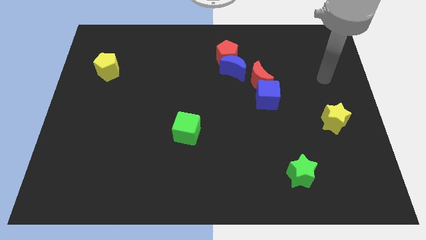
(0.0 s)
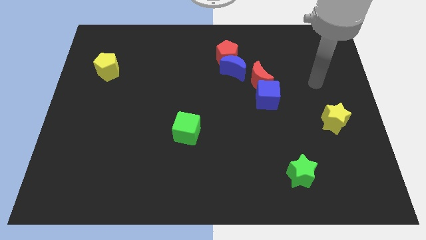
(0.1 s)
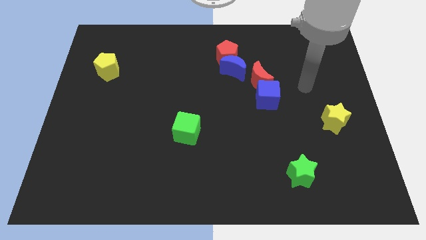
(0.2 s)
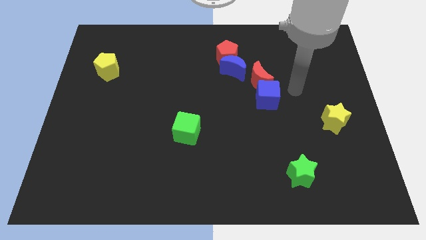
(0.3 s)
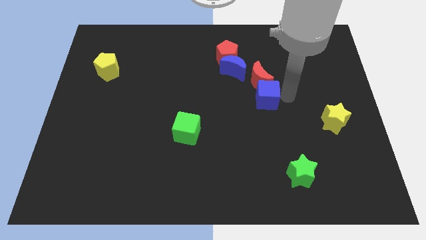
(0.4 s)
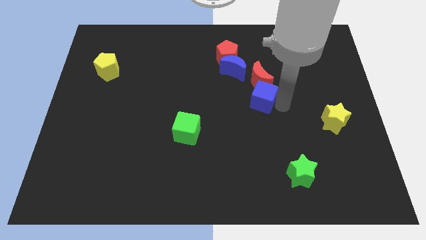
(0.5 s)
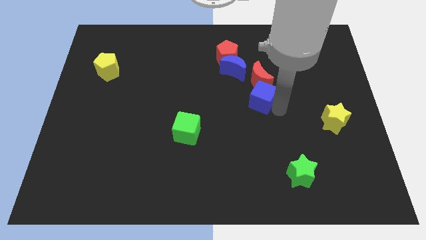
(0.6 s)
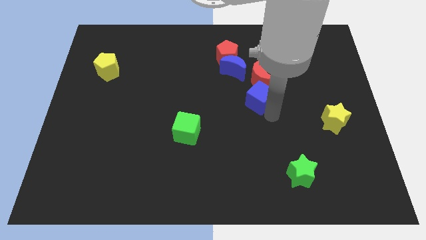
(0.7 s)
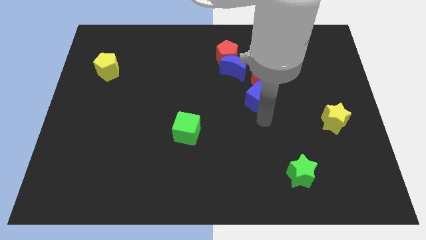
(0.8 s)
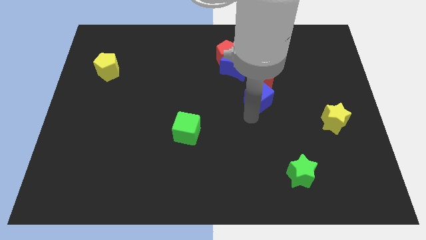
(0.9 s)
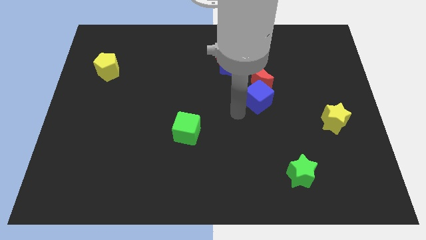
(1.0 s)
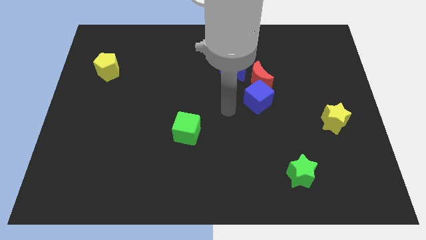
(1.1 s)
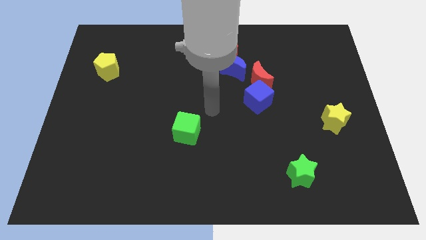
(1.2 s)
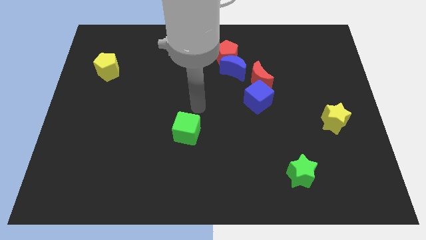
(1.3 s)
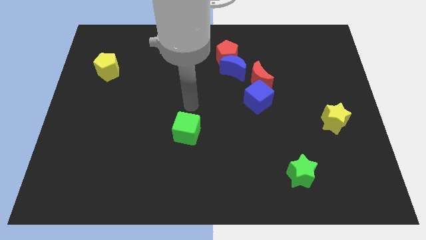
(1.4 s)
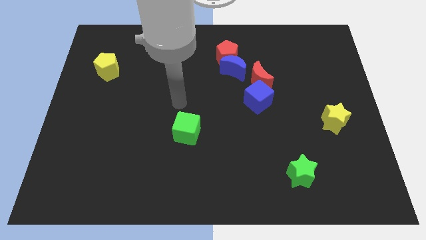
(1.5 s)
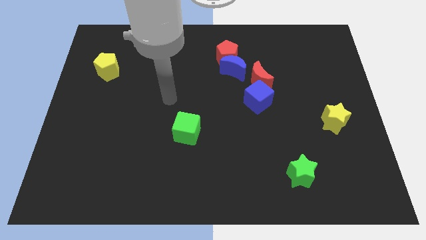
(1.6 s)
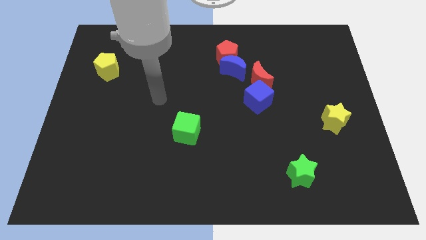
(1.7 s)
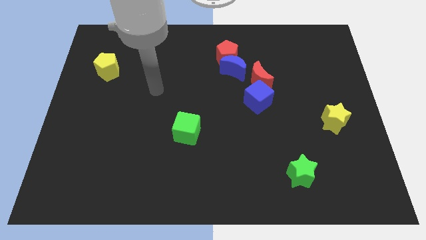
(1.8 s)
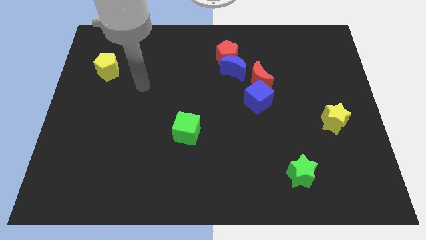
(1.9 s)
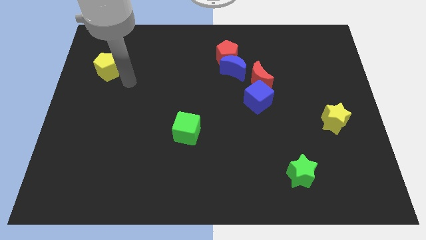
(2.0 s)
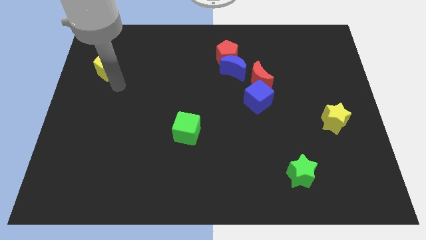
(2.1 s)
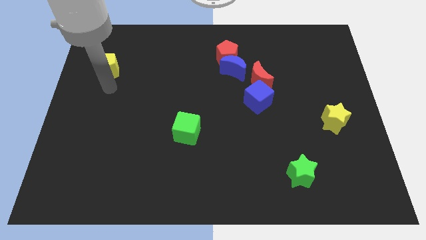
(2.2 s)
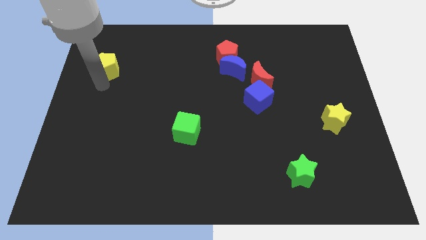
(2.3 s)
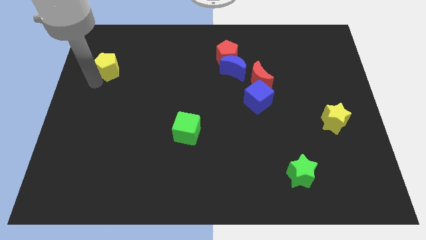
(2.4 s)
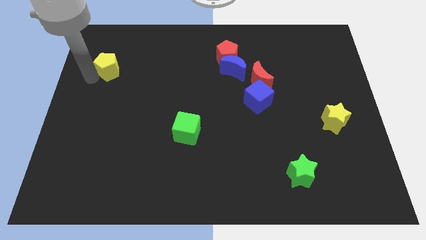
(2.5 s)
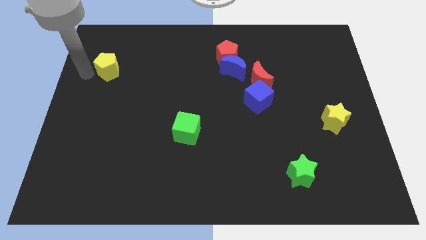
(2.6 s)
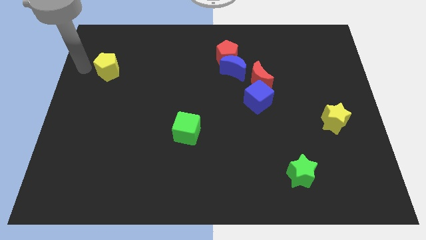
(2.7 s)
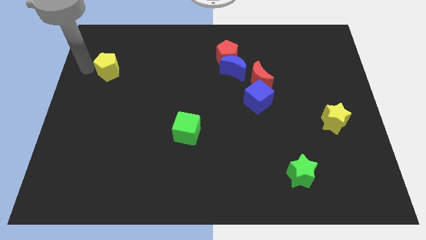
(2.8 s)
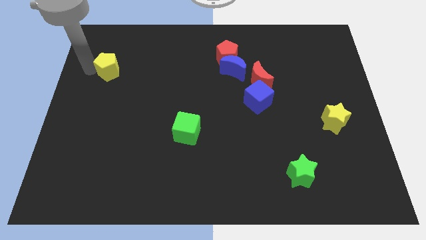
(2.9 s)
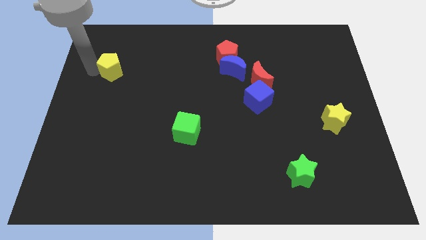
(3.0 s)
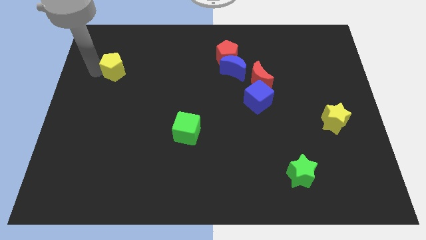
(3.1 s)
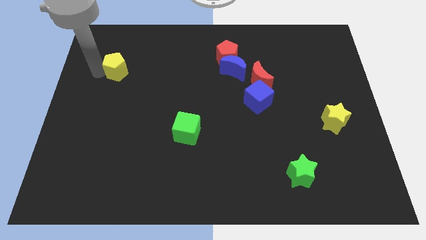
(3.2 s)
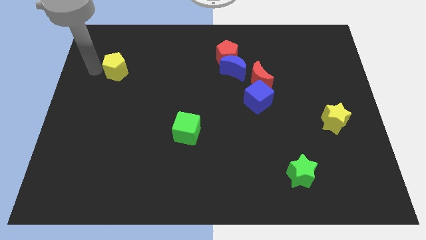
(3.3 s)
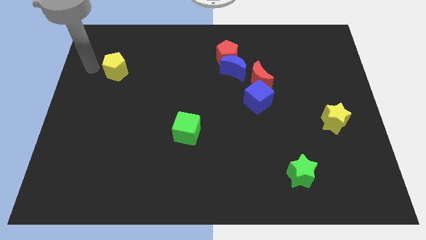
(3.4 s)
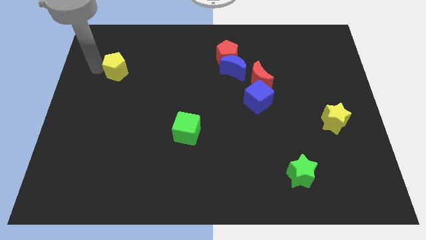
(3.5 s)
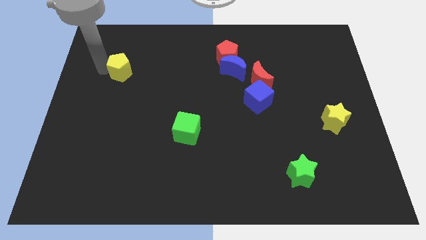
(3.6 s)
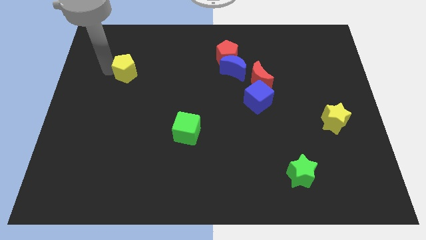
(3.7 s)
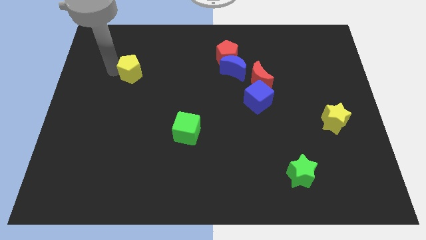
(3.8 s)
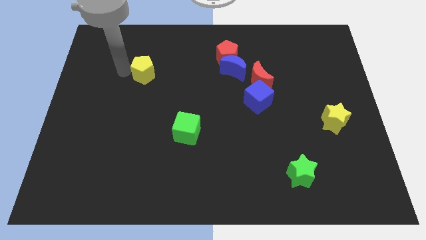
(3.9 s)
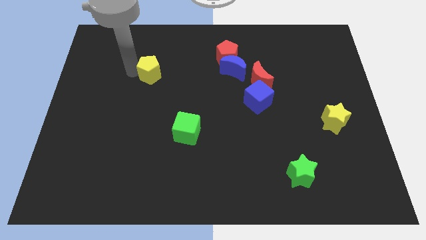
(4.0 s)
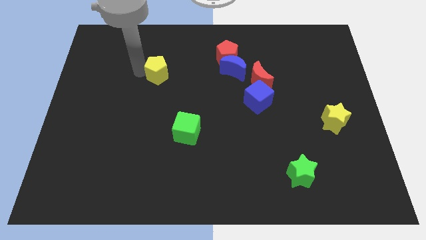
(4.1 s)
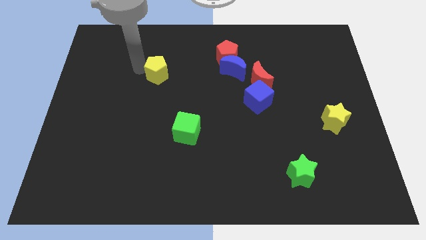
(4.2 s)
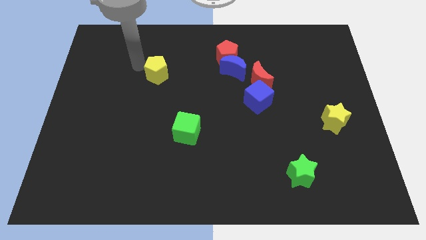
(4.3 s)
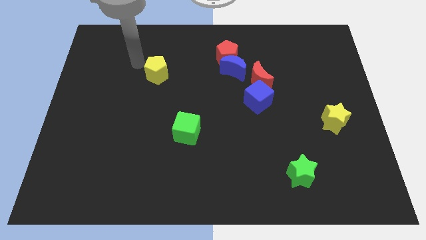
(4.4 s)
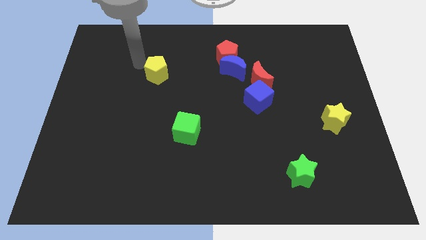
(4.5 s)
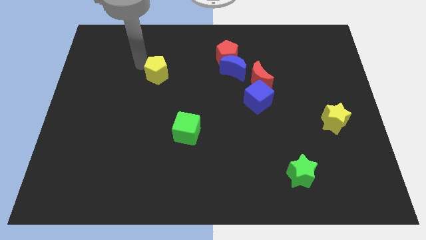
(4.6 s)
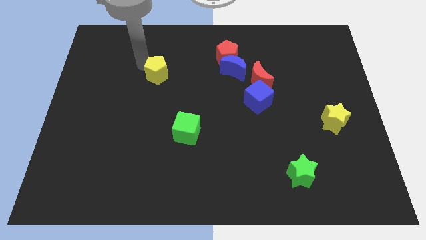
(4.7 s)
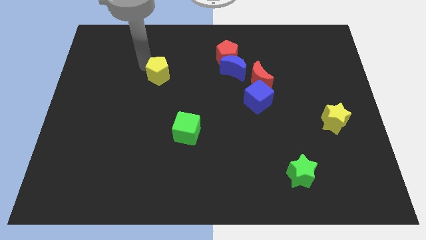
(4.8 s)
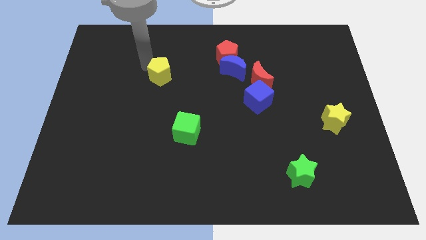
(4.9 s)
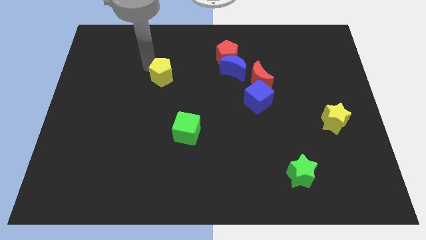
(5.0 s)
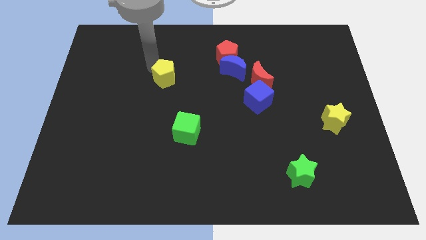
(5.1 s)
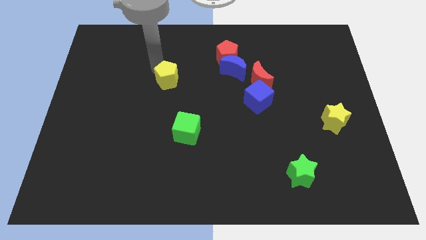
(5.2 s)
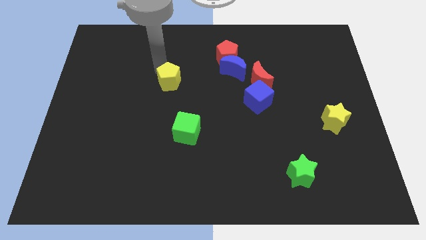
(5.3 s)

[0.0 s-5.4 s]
slide the yellow pentagon to the center
